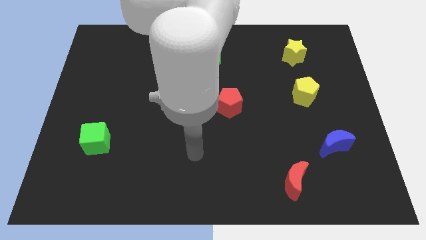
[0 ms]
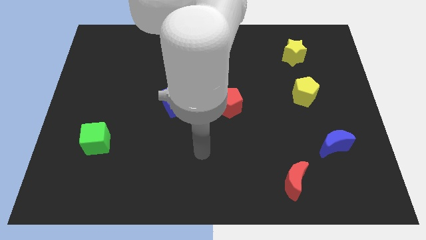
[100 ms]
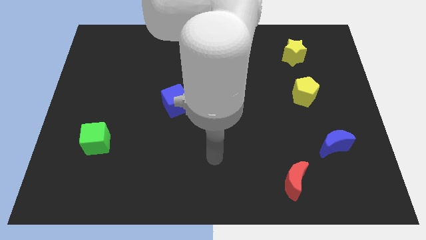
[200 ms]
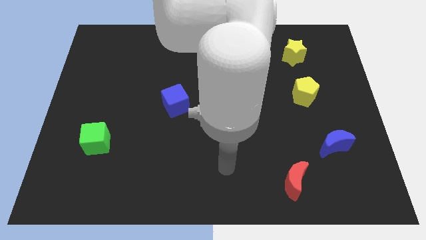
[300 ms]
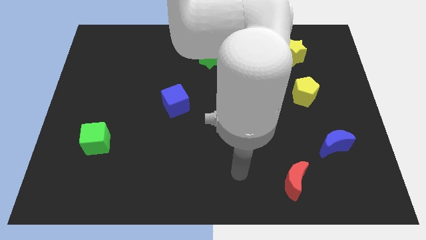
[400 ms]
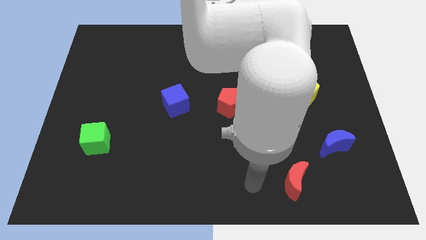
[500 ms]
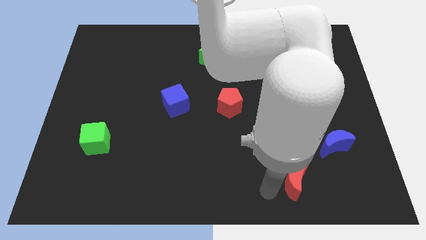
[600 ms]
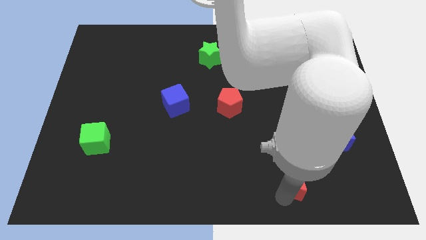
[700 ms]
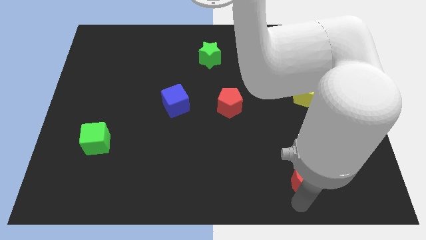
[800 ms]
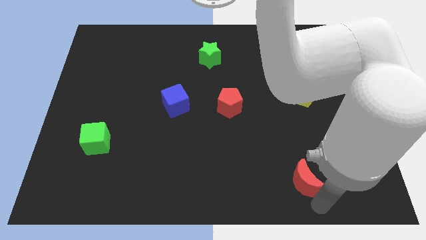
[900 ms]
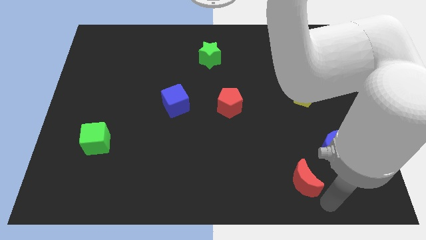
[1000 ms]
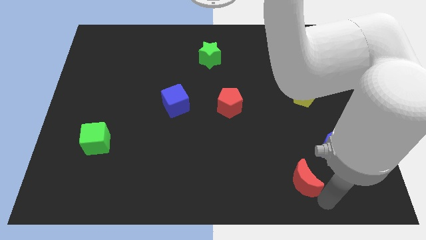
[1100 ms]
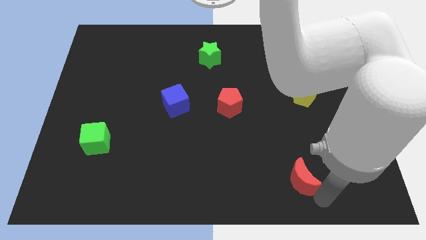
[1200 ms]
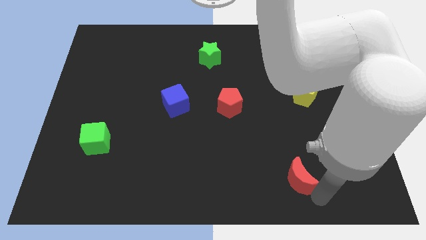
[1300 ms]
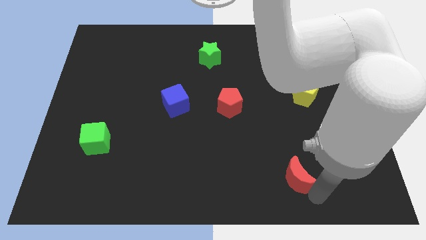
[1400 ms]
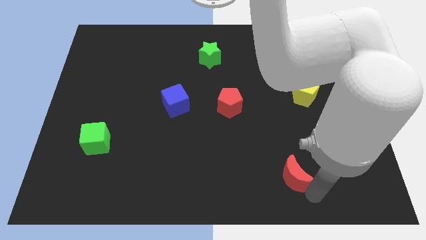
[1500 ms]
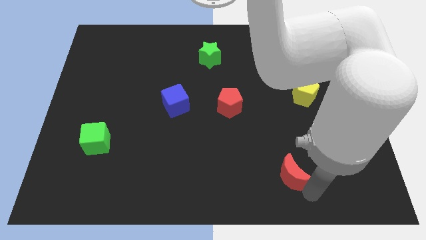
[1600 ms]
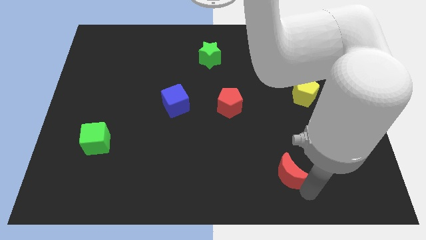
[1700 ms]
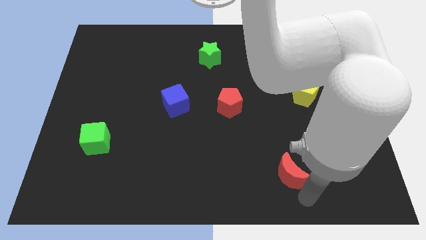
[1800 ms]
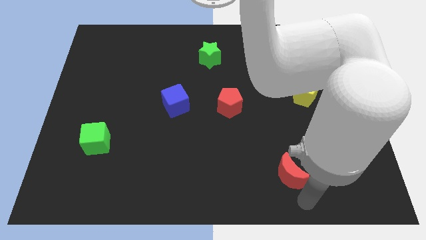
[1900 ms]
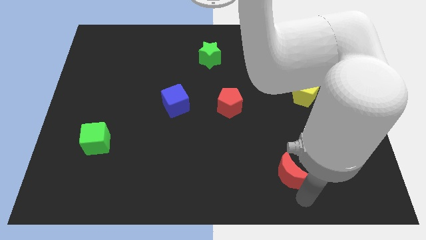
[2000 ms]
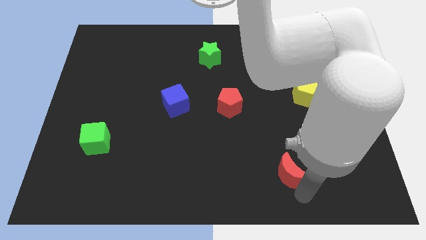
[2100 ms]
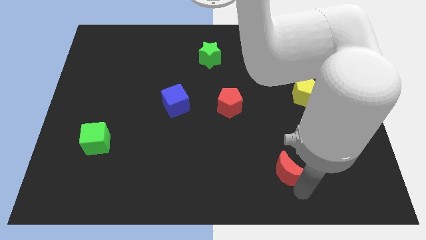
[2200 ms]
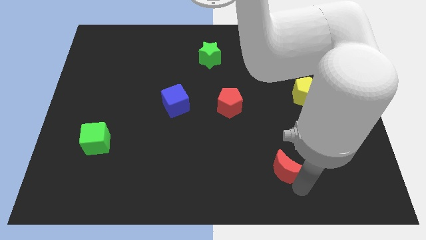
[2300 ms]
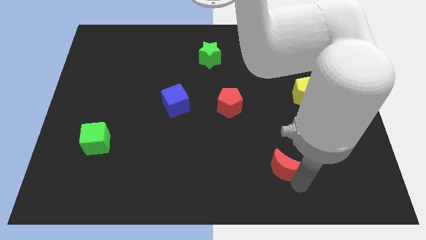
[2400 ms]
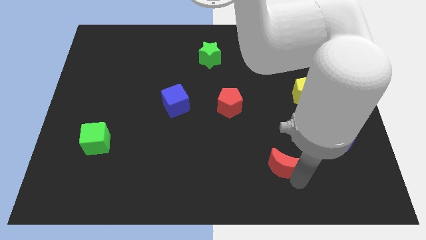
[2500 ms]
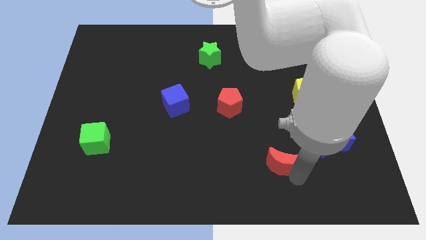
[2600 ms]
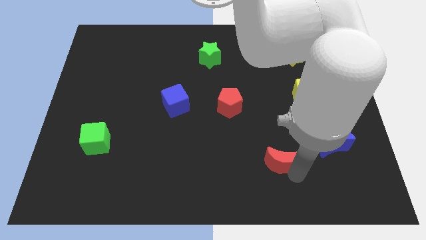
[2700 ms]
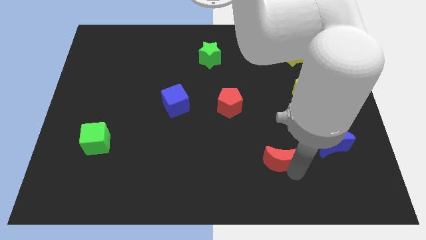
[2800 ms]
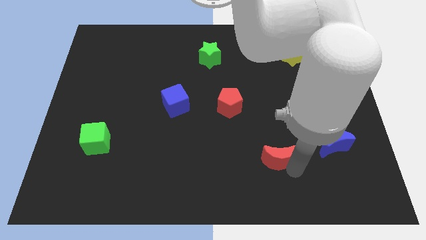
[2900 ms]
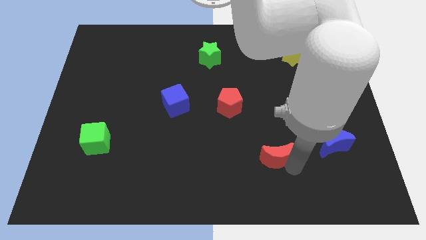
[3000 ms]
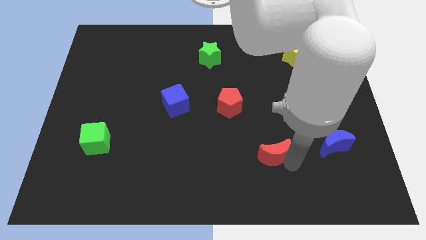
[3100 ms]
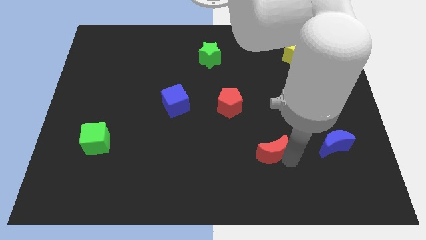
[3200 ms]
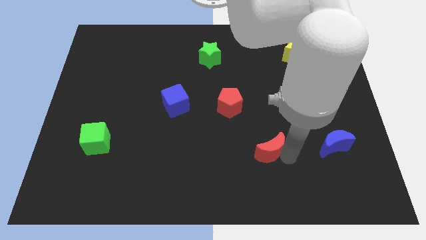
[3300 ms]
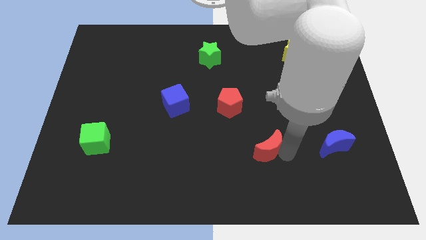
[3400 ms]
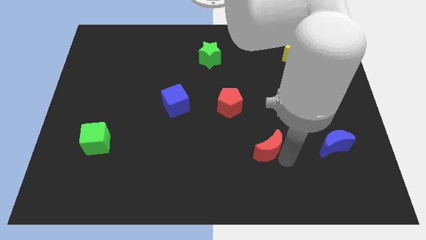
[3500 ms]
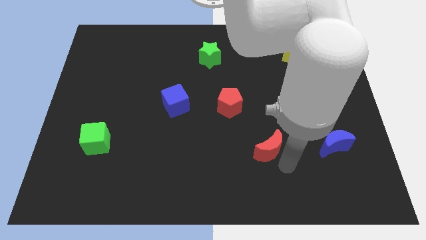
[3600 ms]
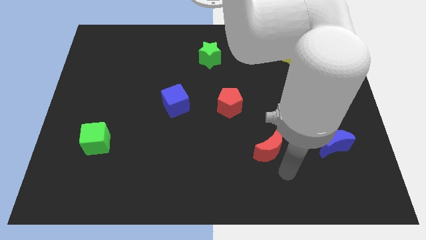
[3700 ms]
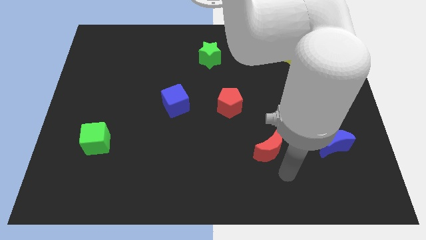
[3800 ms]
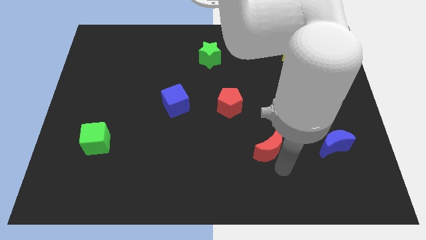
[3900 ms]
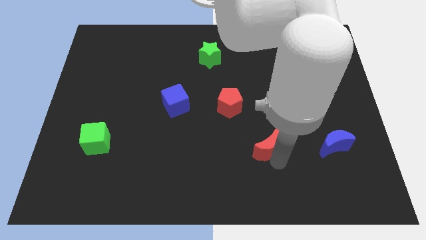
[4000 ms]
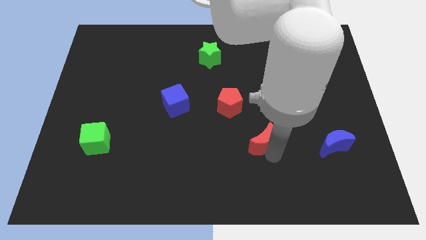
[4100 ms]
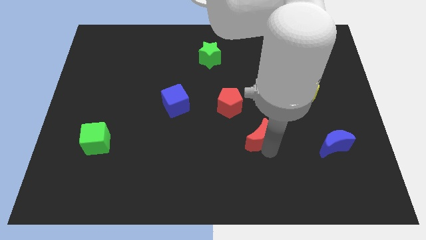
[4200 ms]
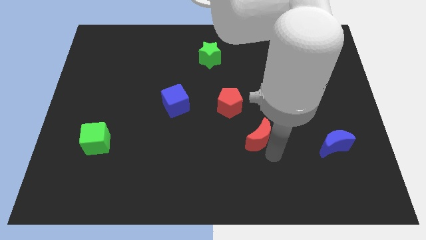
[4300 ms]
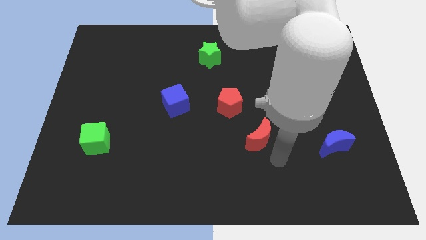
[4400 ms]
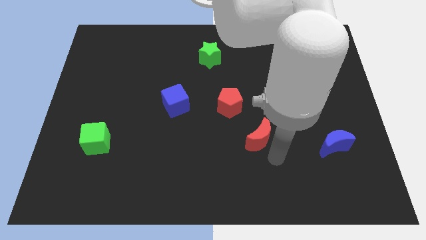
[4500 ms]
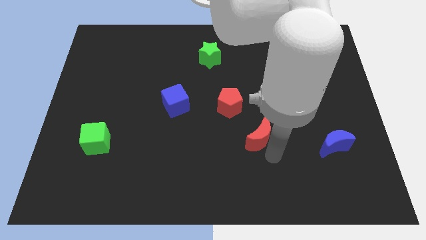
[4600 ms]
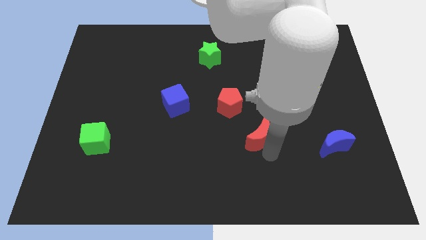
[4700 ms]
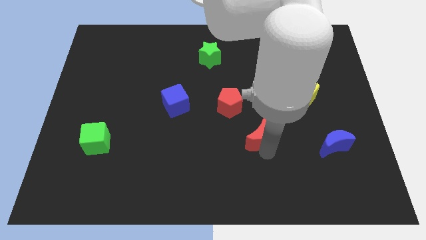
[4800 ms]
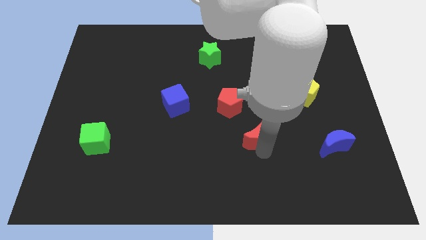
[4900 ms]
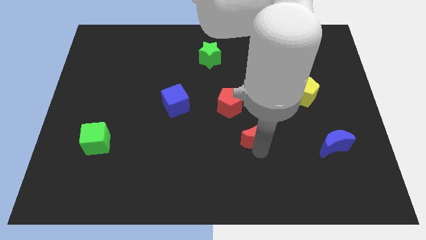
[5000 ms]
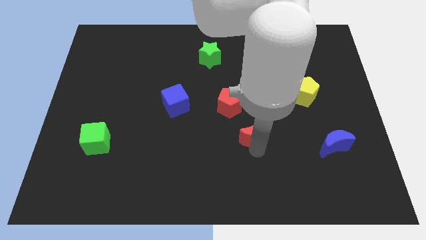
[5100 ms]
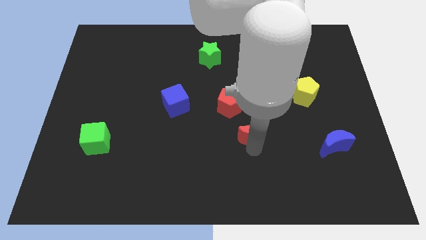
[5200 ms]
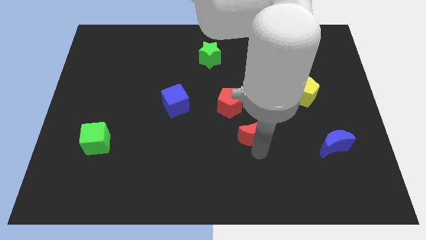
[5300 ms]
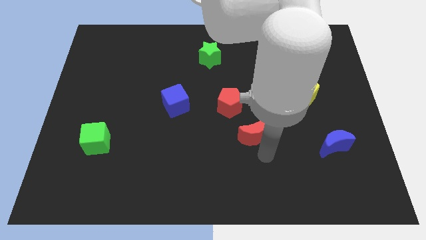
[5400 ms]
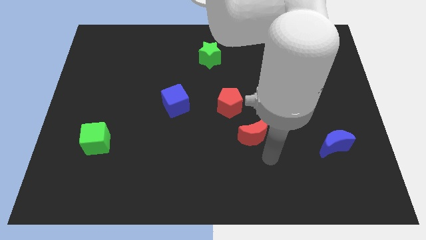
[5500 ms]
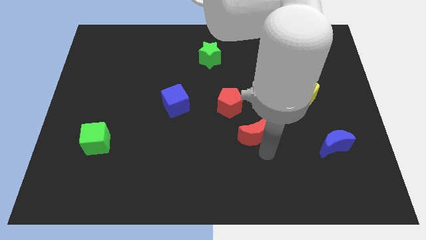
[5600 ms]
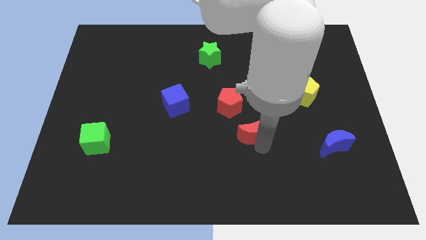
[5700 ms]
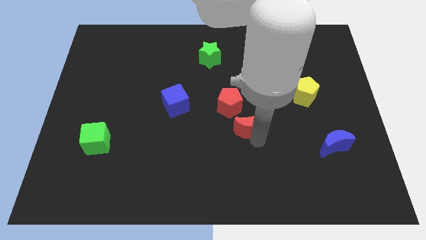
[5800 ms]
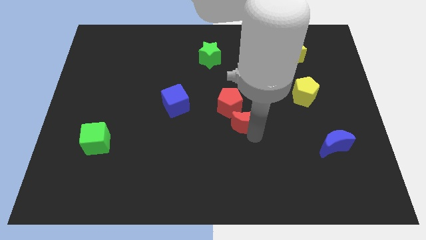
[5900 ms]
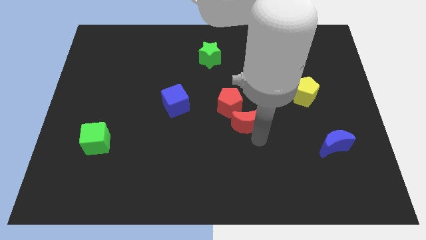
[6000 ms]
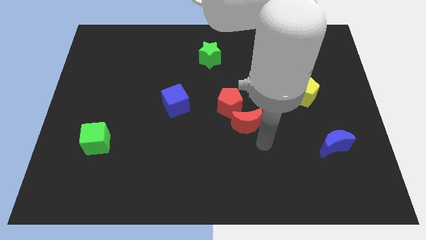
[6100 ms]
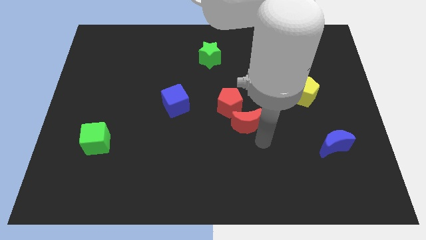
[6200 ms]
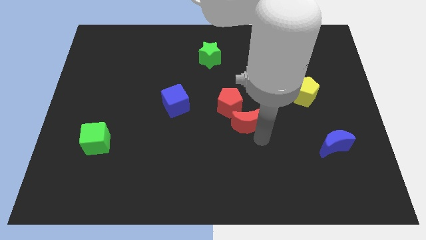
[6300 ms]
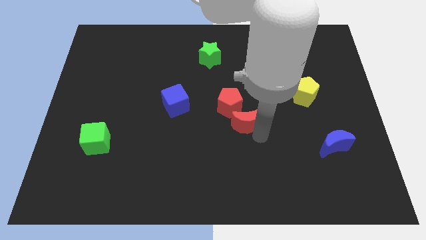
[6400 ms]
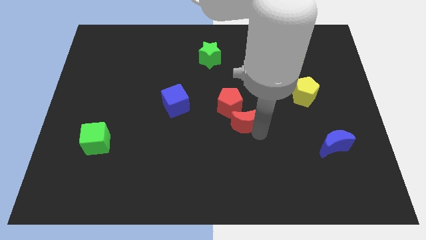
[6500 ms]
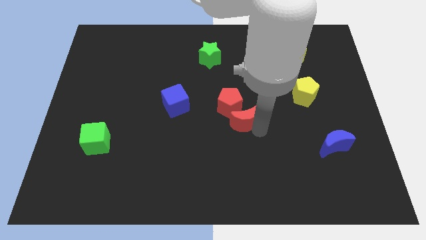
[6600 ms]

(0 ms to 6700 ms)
move the red moon close to the red pentagon

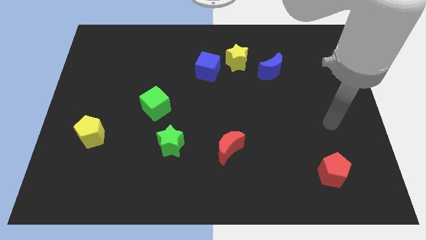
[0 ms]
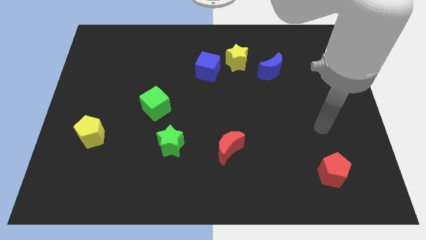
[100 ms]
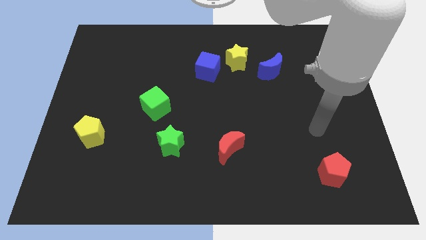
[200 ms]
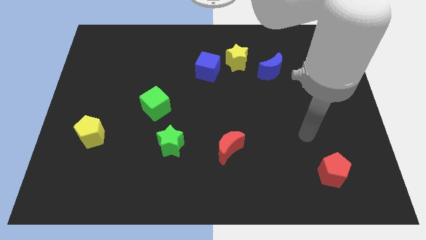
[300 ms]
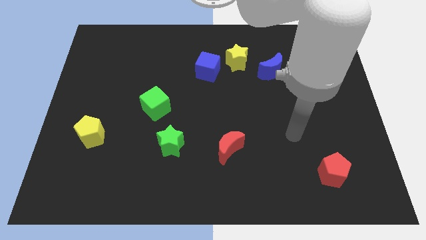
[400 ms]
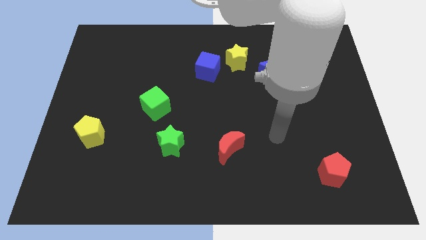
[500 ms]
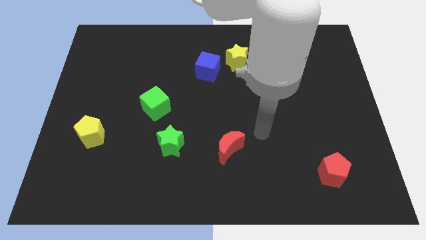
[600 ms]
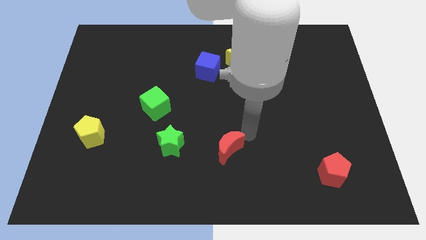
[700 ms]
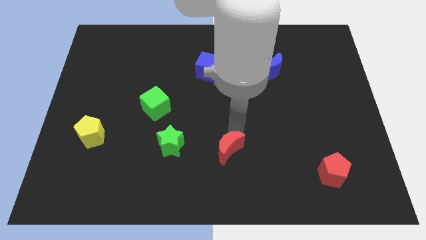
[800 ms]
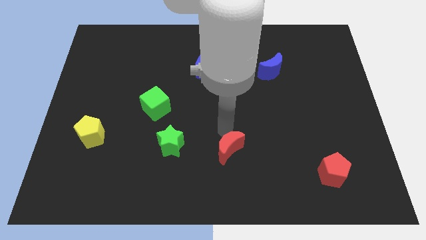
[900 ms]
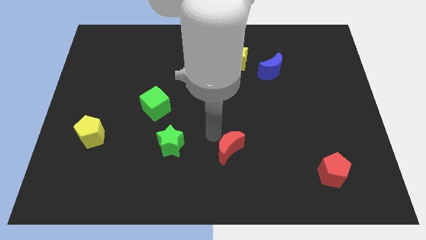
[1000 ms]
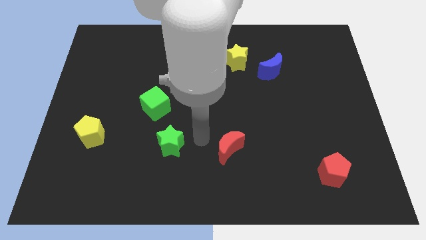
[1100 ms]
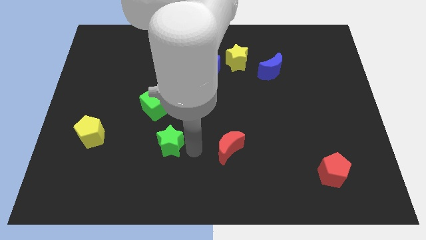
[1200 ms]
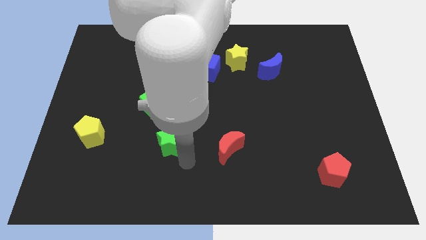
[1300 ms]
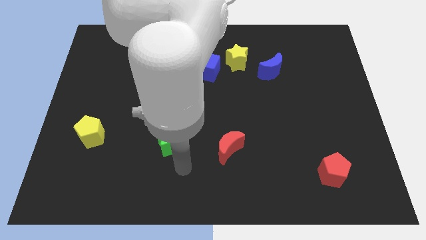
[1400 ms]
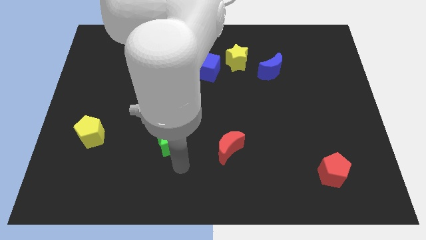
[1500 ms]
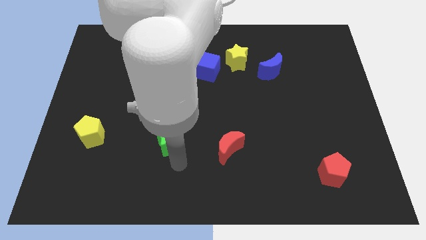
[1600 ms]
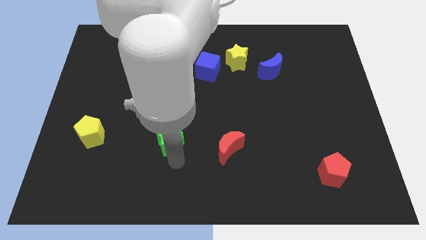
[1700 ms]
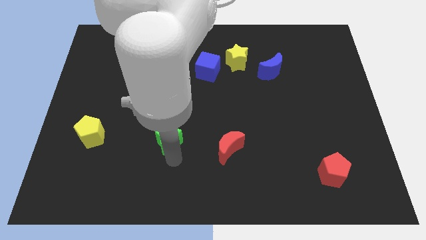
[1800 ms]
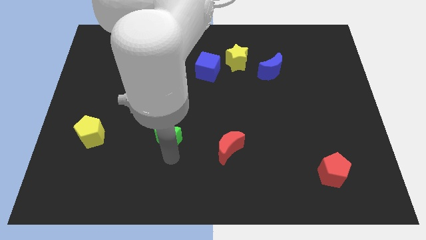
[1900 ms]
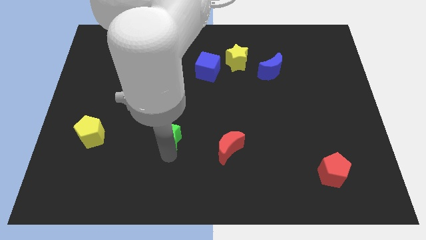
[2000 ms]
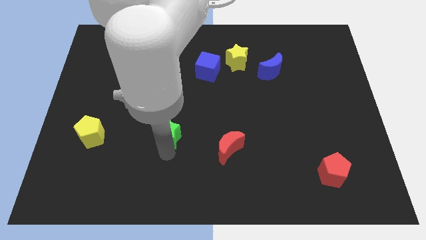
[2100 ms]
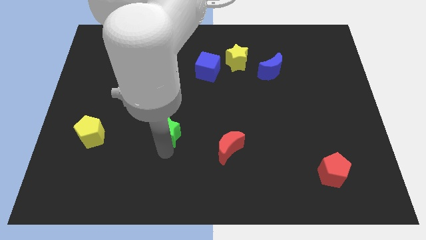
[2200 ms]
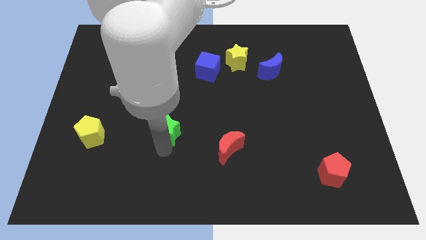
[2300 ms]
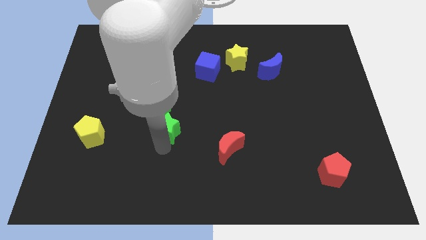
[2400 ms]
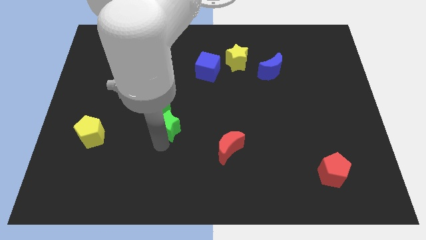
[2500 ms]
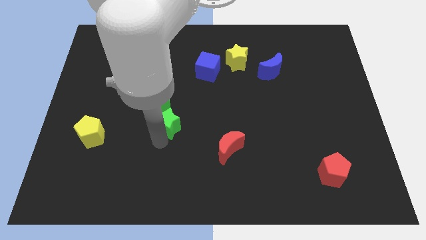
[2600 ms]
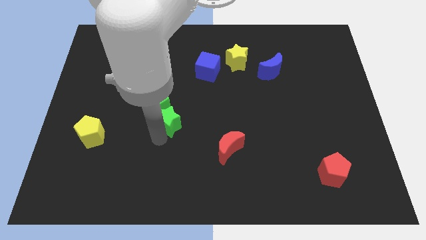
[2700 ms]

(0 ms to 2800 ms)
push the green star towards the green cube
